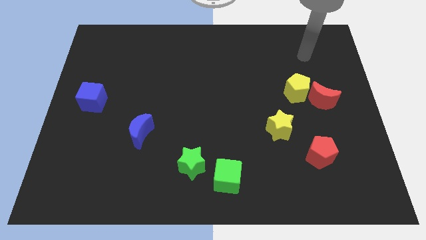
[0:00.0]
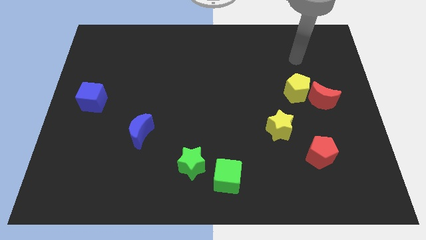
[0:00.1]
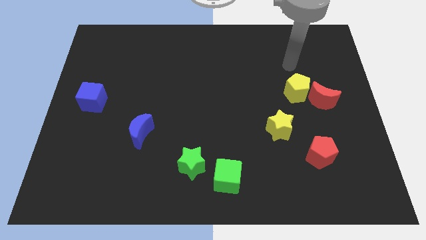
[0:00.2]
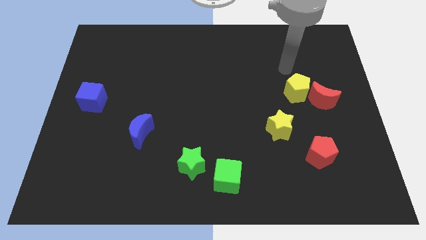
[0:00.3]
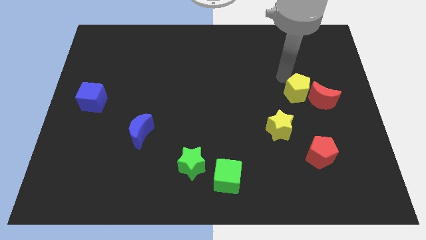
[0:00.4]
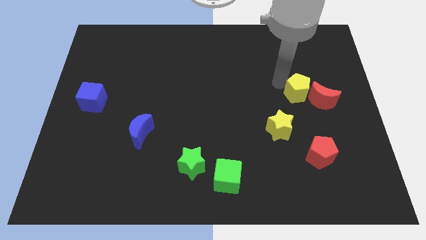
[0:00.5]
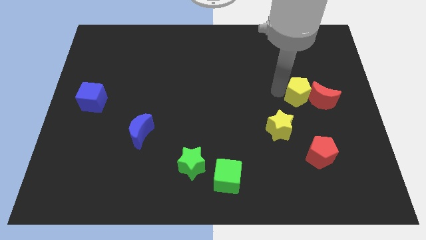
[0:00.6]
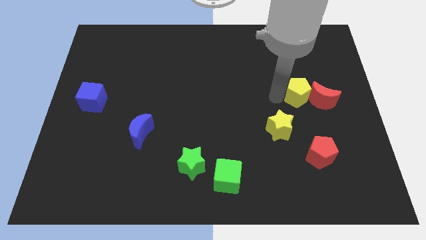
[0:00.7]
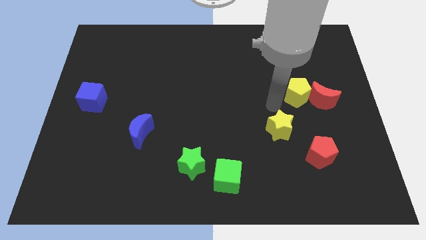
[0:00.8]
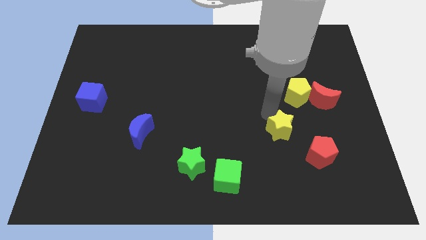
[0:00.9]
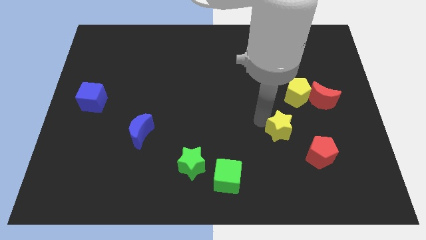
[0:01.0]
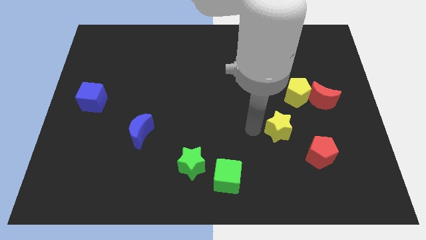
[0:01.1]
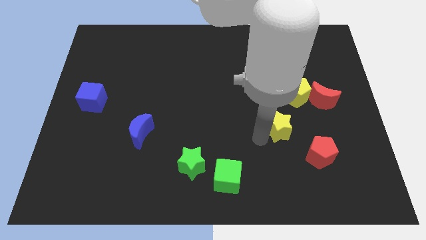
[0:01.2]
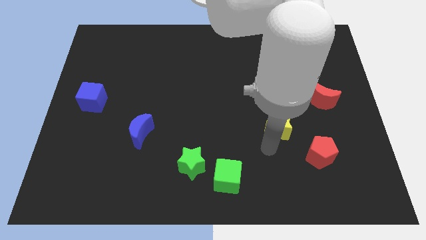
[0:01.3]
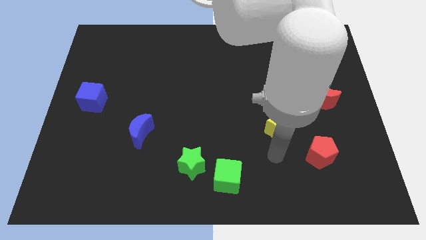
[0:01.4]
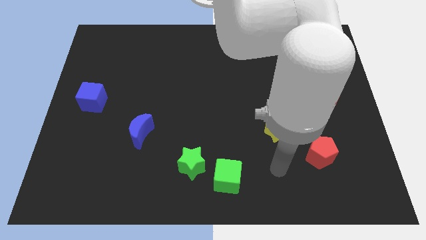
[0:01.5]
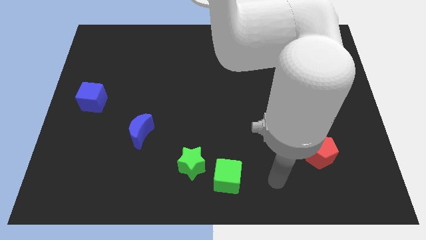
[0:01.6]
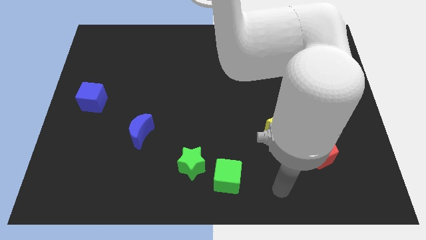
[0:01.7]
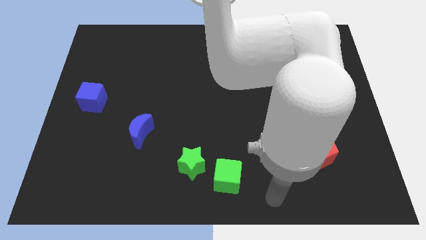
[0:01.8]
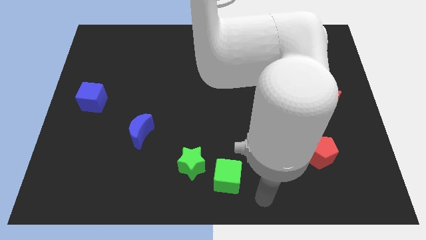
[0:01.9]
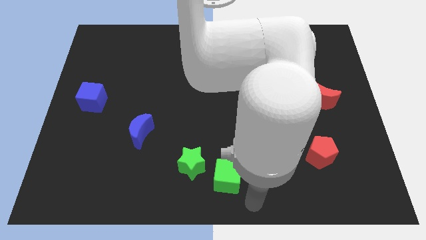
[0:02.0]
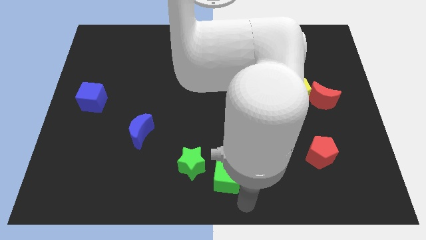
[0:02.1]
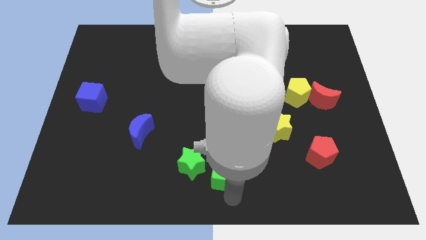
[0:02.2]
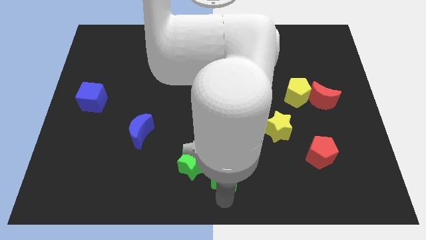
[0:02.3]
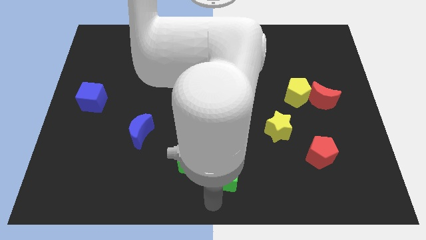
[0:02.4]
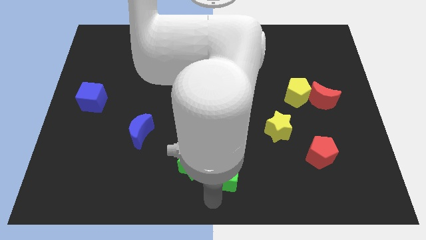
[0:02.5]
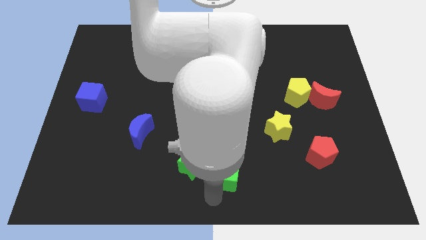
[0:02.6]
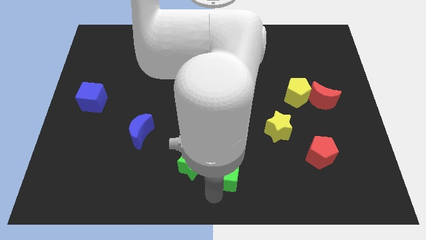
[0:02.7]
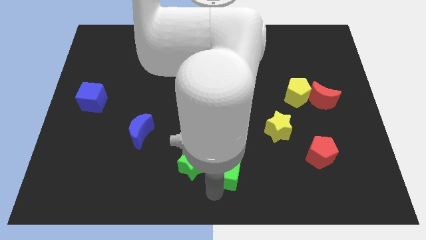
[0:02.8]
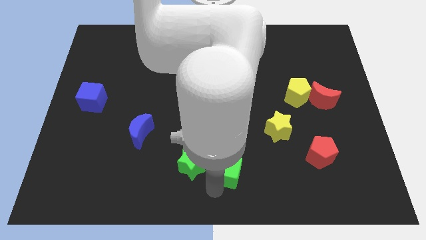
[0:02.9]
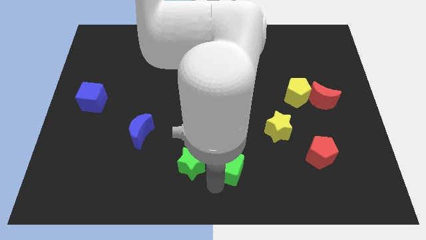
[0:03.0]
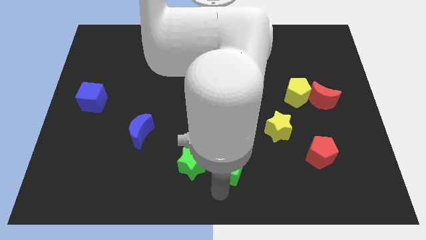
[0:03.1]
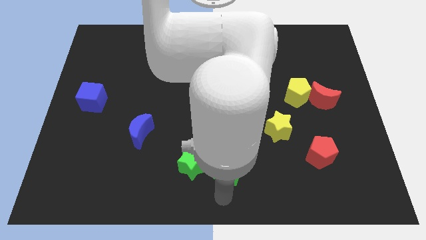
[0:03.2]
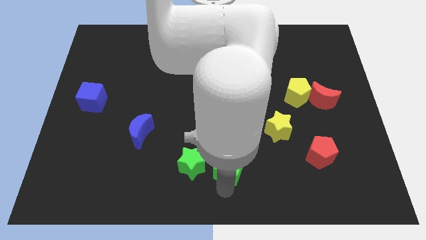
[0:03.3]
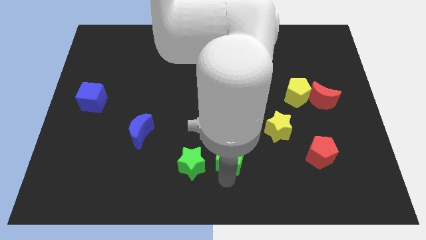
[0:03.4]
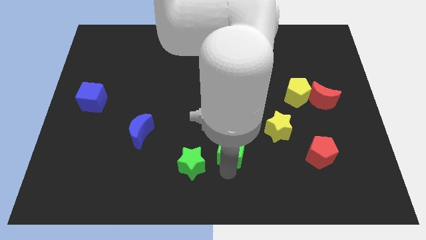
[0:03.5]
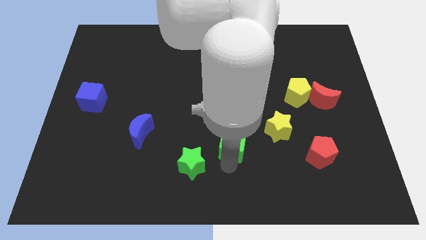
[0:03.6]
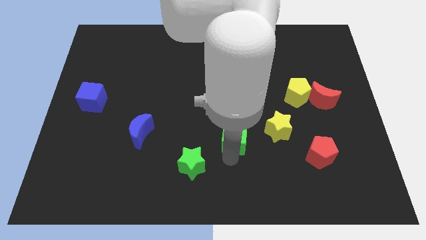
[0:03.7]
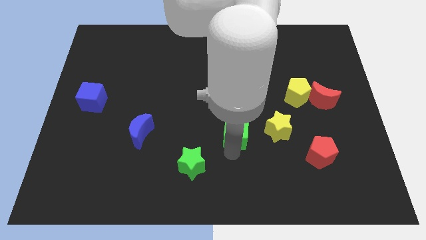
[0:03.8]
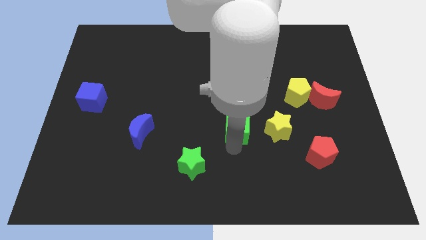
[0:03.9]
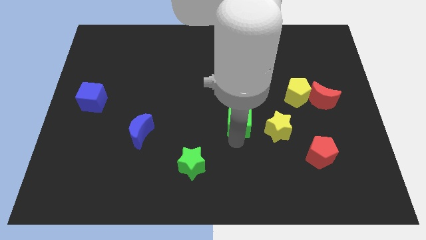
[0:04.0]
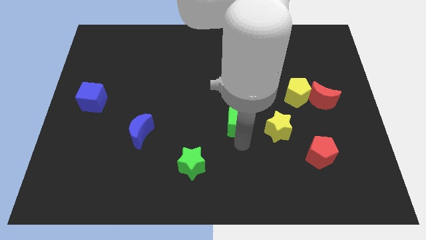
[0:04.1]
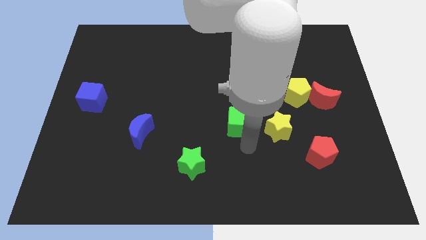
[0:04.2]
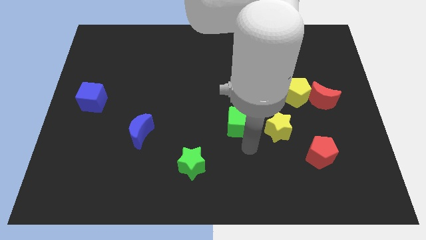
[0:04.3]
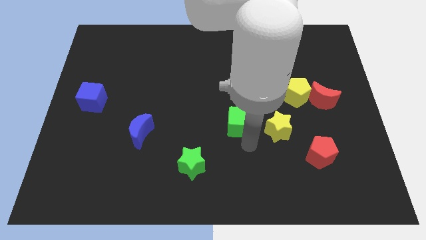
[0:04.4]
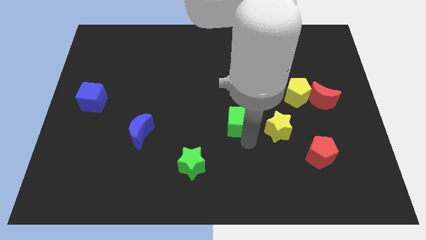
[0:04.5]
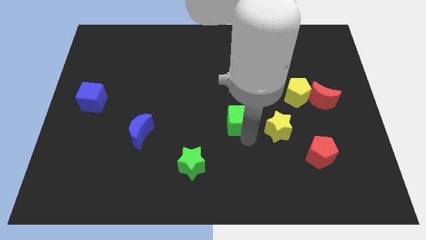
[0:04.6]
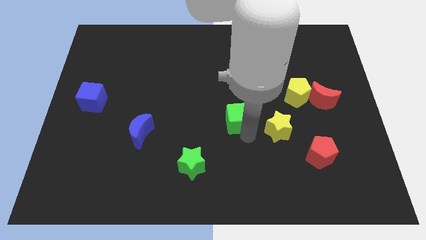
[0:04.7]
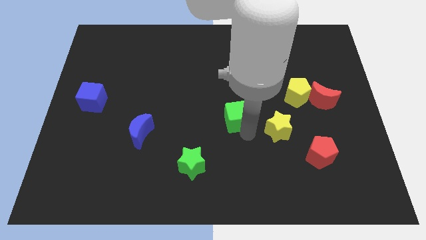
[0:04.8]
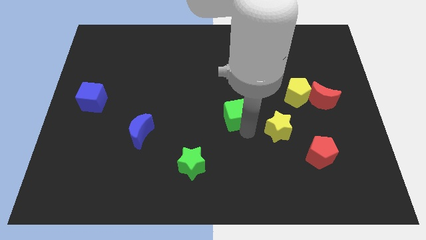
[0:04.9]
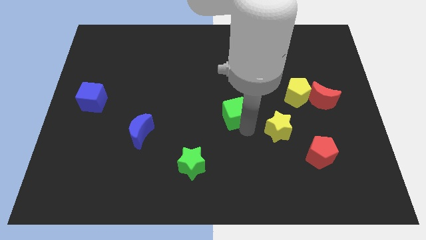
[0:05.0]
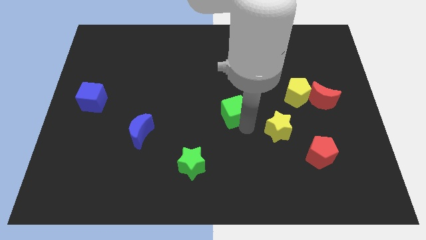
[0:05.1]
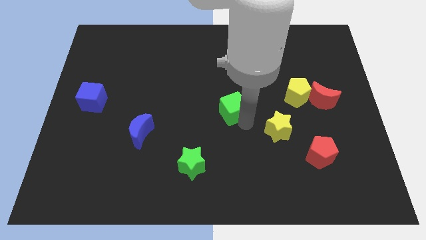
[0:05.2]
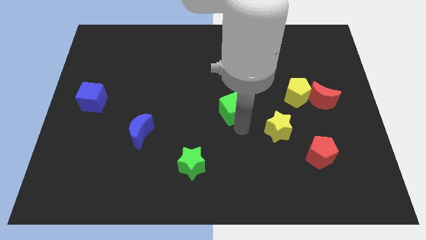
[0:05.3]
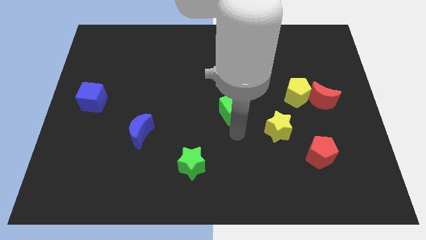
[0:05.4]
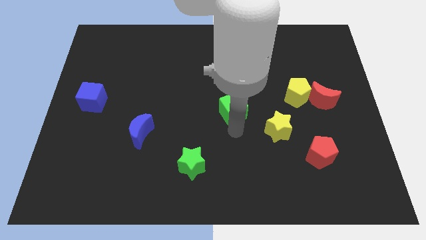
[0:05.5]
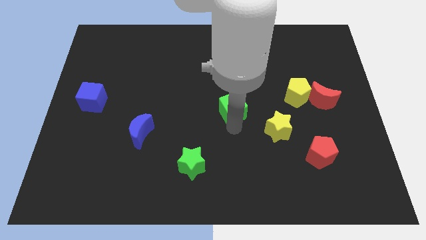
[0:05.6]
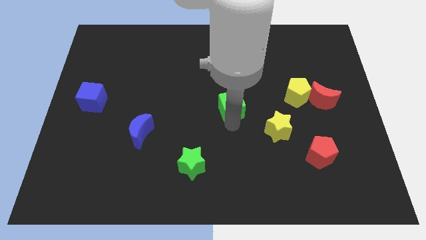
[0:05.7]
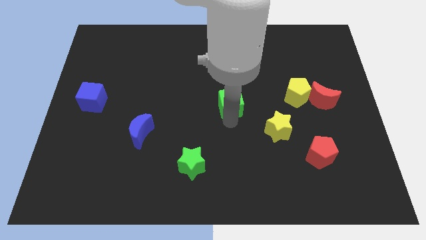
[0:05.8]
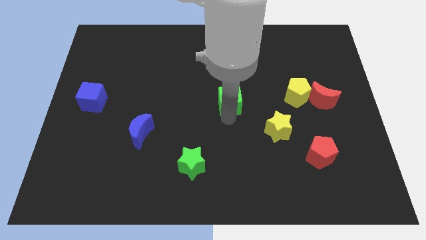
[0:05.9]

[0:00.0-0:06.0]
move the green cube upwards

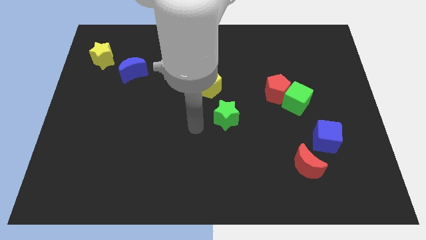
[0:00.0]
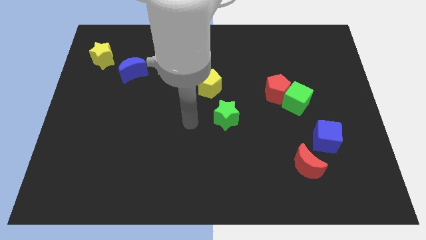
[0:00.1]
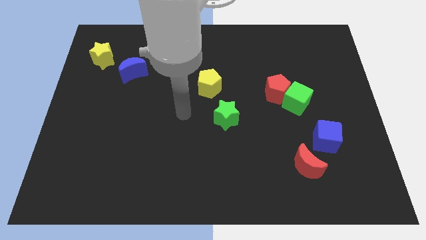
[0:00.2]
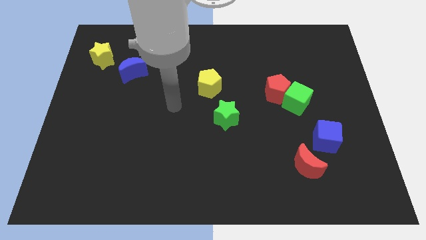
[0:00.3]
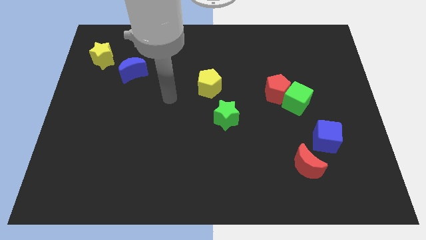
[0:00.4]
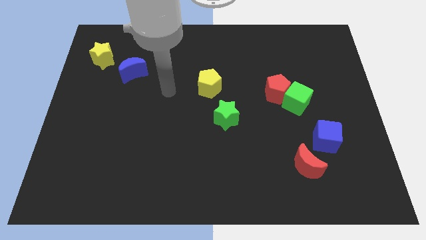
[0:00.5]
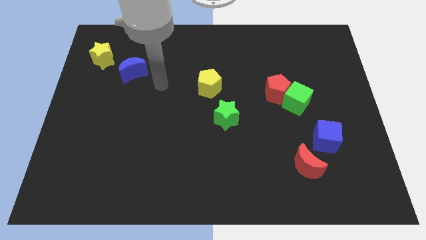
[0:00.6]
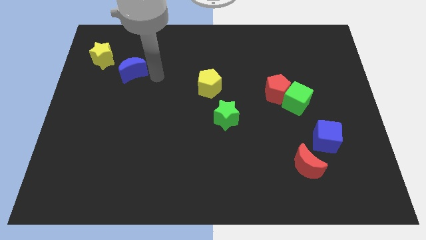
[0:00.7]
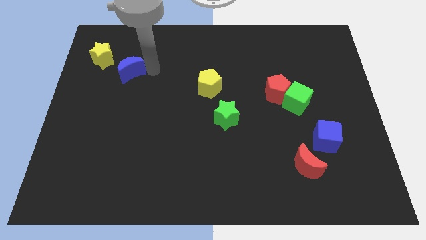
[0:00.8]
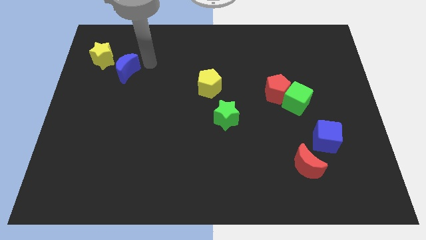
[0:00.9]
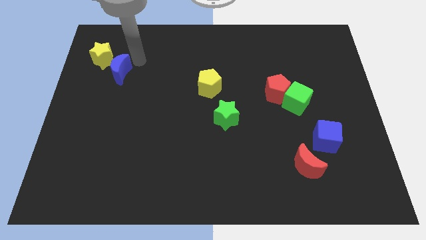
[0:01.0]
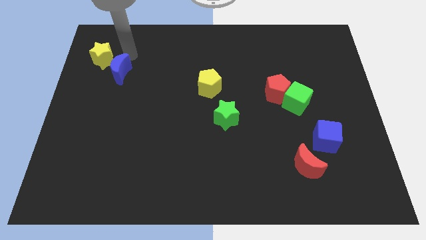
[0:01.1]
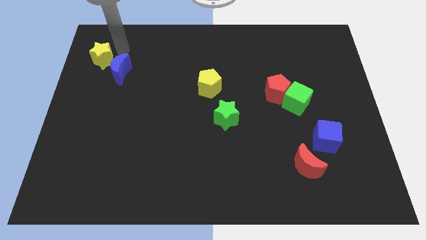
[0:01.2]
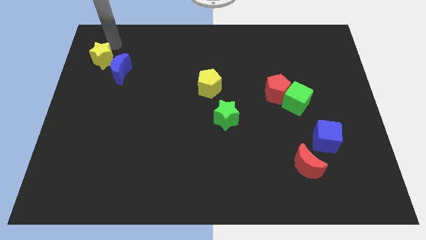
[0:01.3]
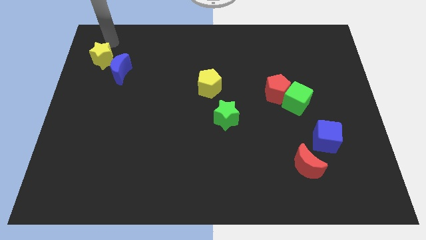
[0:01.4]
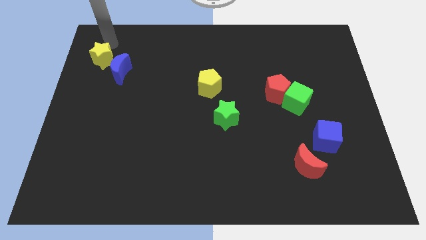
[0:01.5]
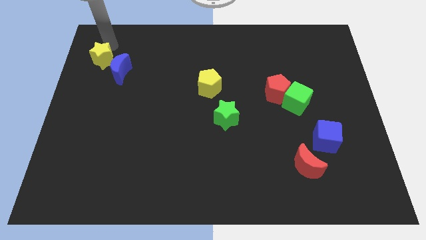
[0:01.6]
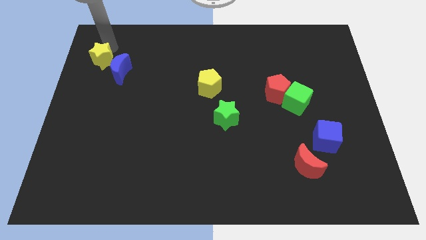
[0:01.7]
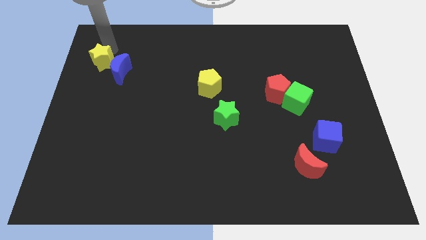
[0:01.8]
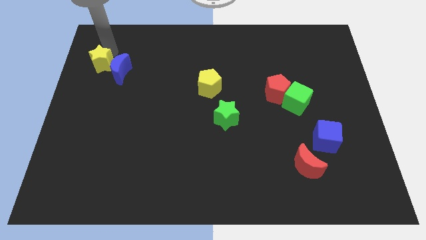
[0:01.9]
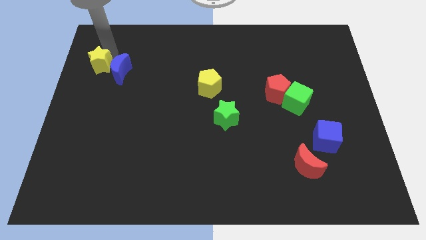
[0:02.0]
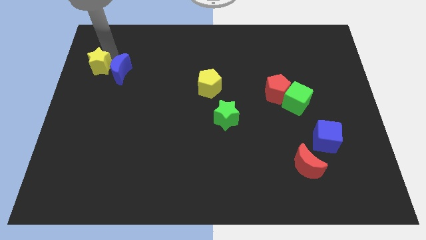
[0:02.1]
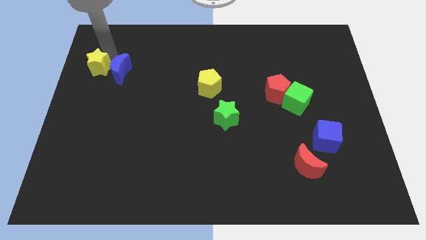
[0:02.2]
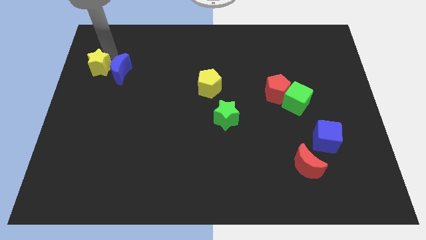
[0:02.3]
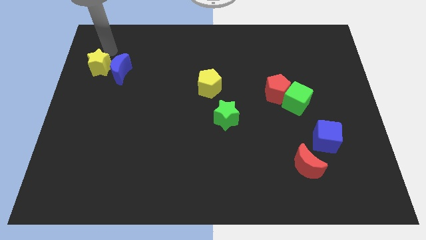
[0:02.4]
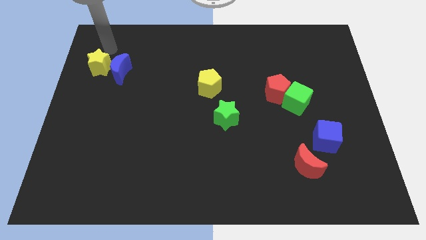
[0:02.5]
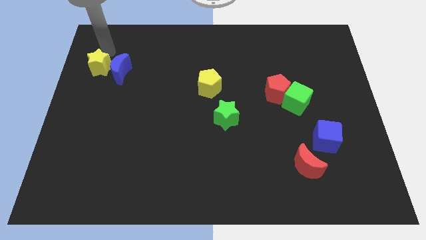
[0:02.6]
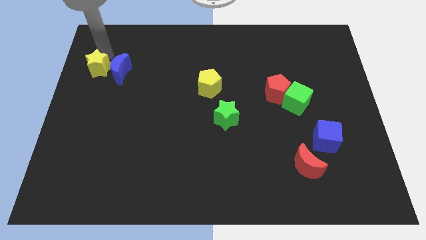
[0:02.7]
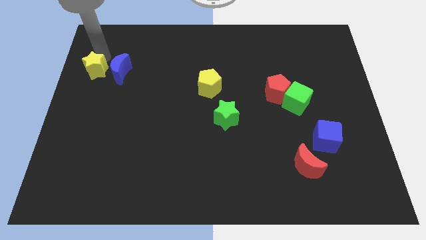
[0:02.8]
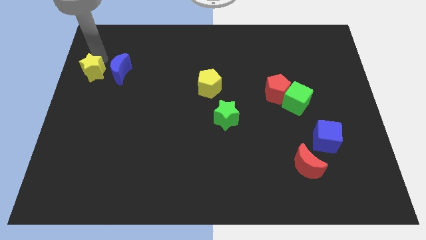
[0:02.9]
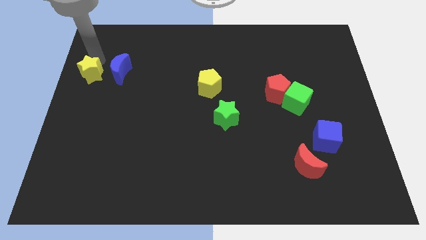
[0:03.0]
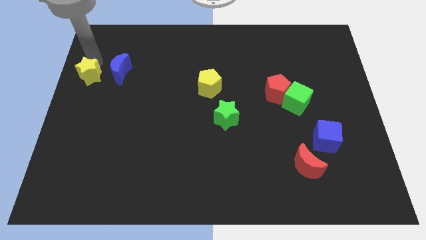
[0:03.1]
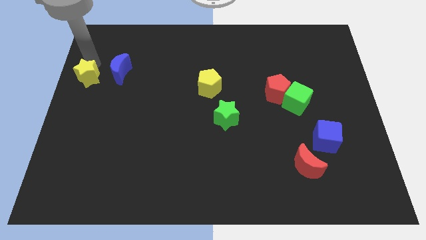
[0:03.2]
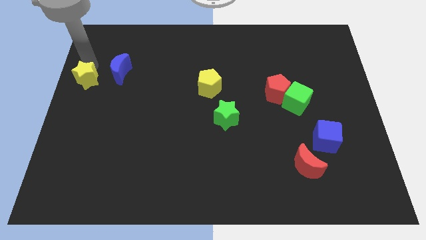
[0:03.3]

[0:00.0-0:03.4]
push the yellow star down slightly
